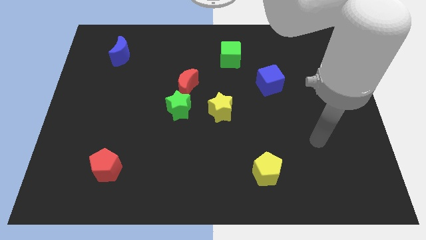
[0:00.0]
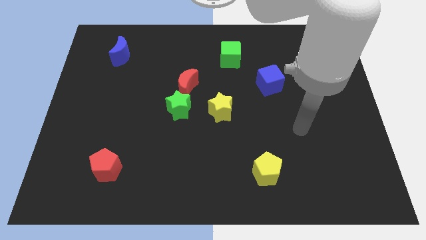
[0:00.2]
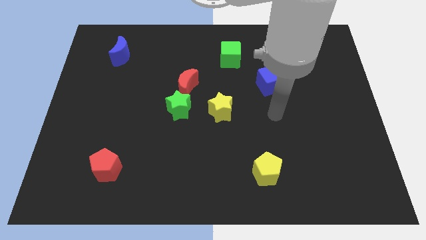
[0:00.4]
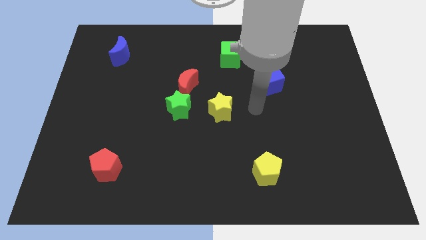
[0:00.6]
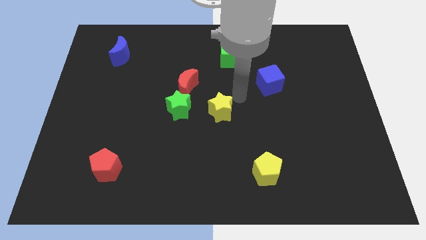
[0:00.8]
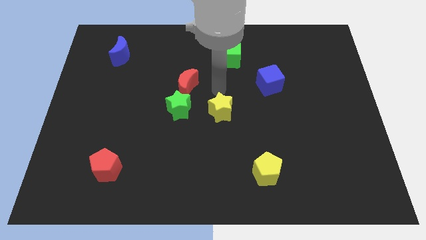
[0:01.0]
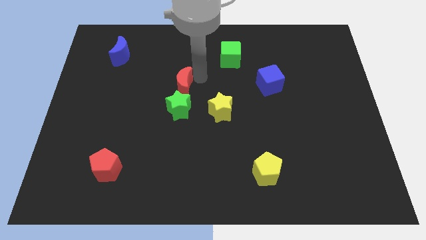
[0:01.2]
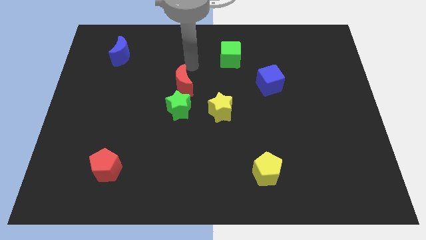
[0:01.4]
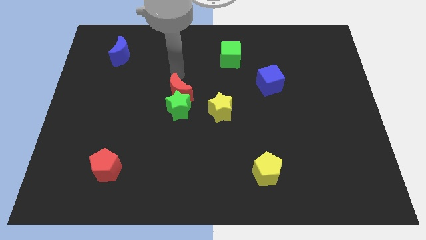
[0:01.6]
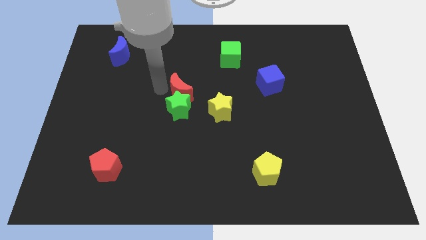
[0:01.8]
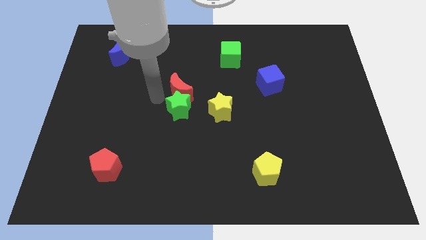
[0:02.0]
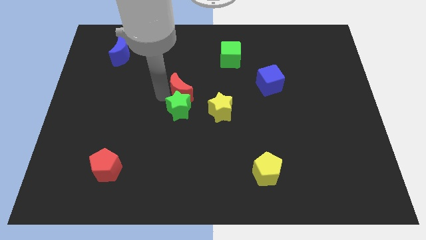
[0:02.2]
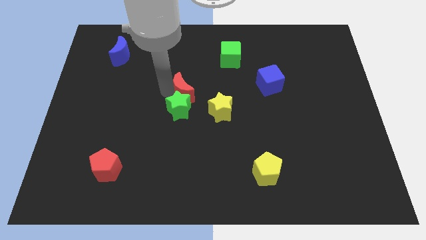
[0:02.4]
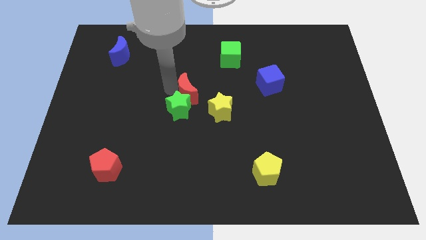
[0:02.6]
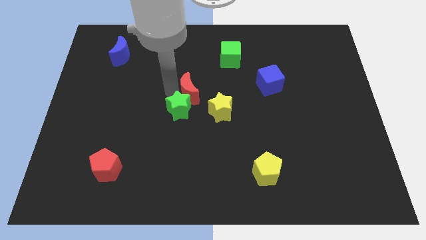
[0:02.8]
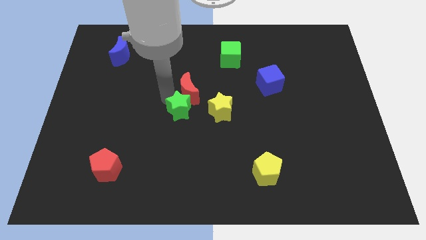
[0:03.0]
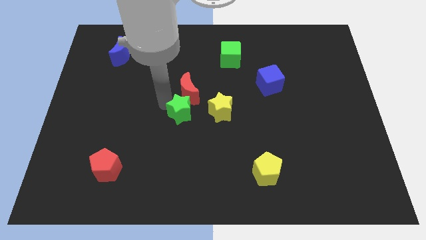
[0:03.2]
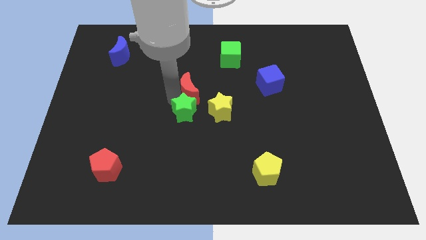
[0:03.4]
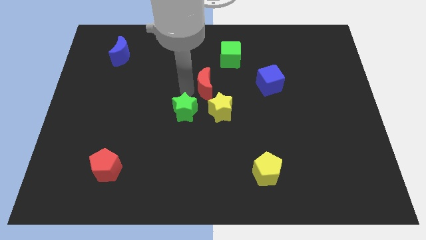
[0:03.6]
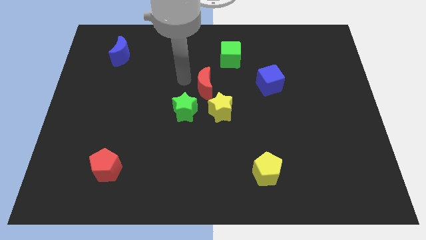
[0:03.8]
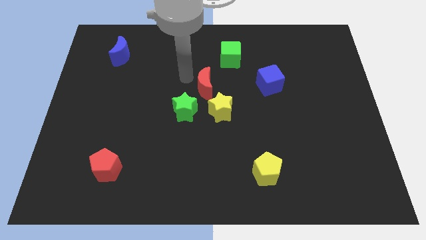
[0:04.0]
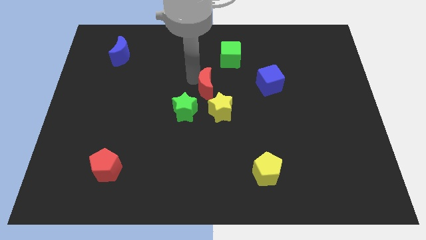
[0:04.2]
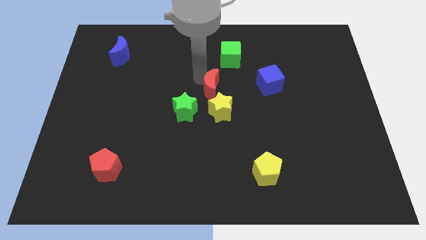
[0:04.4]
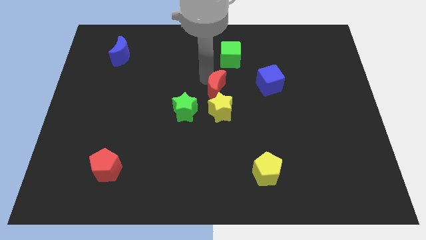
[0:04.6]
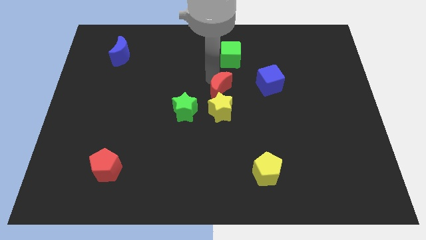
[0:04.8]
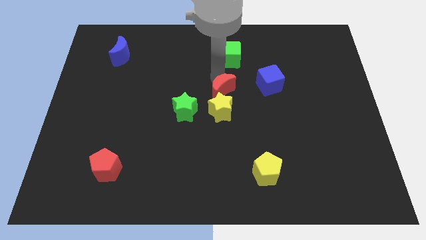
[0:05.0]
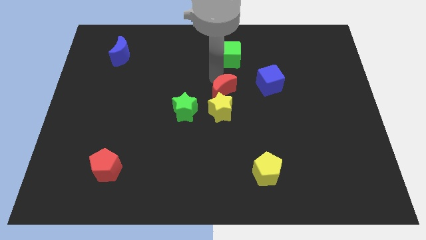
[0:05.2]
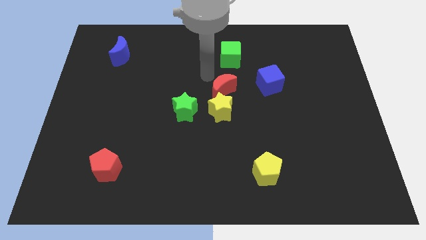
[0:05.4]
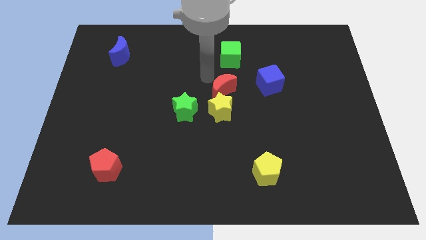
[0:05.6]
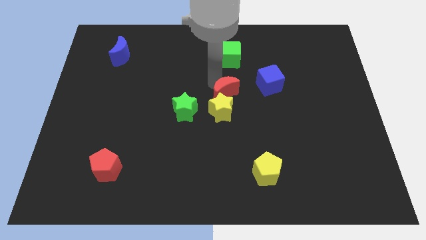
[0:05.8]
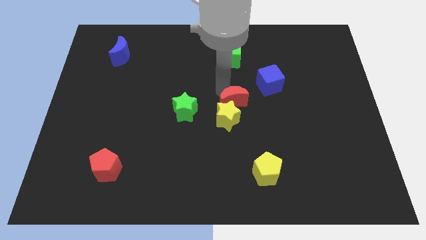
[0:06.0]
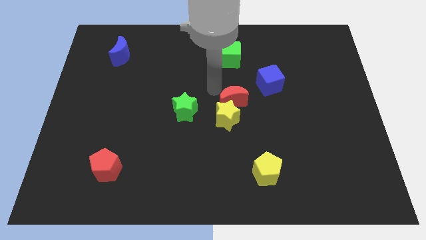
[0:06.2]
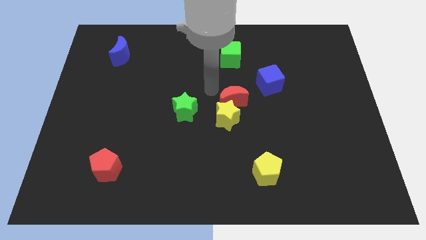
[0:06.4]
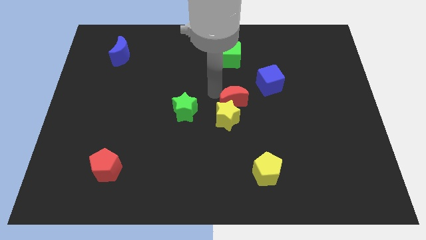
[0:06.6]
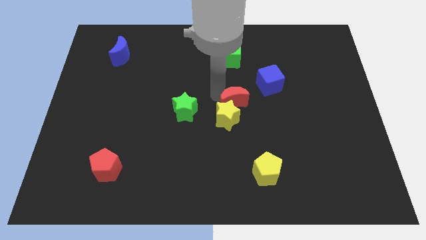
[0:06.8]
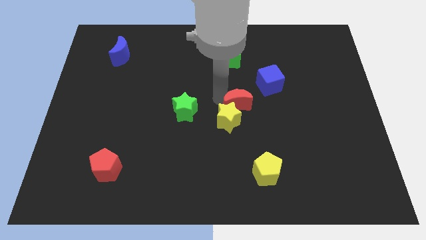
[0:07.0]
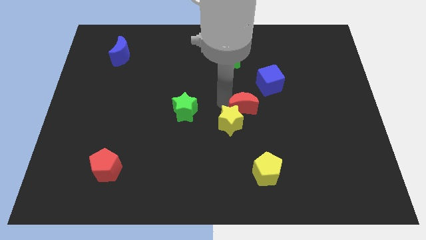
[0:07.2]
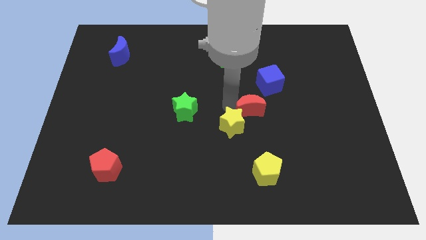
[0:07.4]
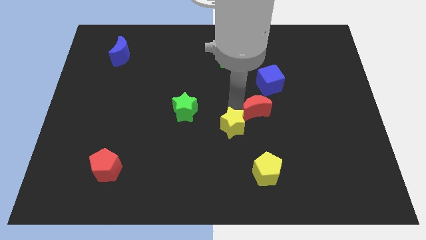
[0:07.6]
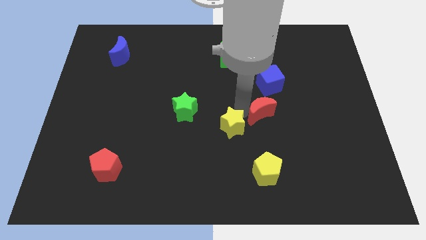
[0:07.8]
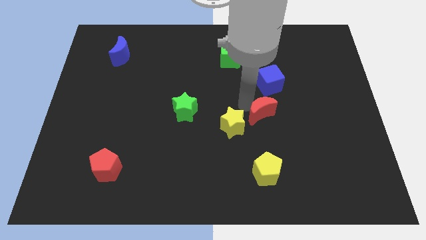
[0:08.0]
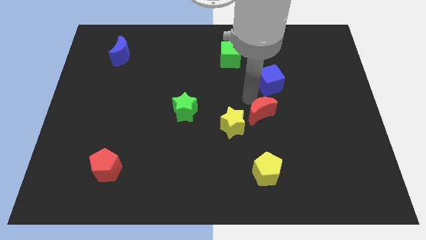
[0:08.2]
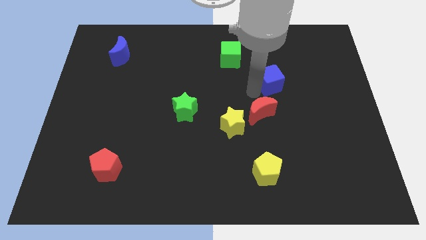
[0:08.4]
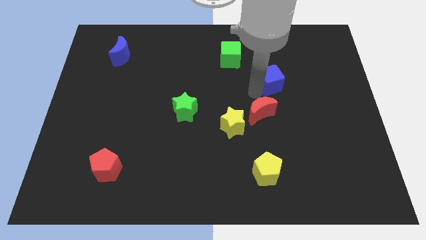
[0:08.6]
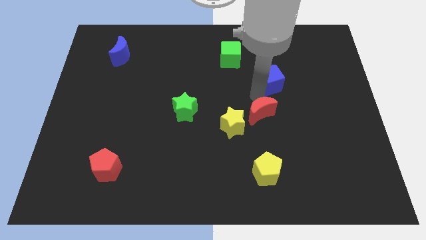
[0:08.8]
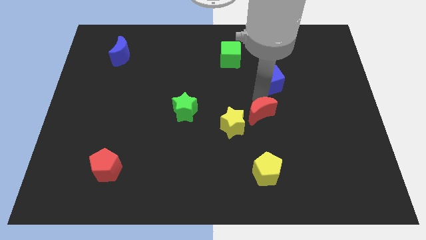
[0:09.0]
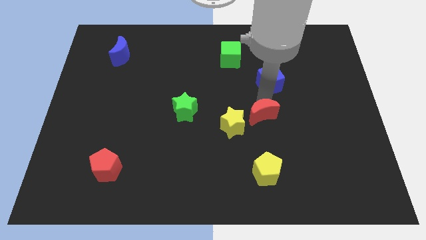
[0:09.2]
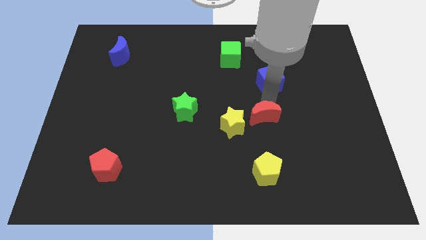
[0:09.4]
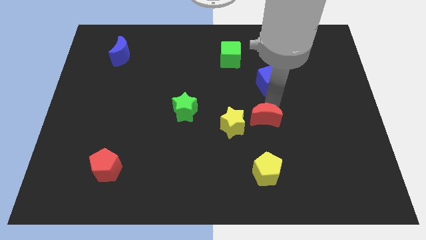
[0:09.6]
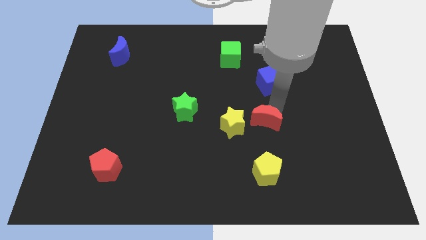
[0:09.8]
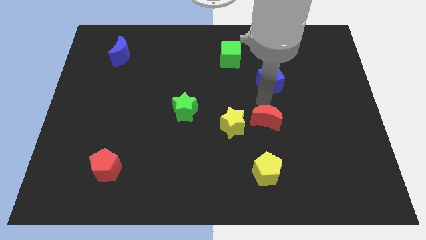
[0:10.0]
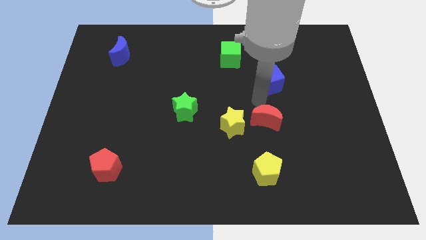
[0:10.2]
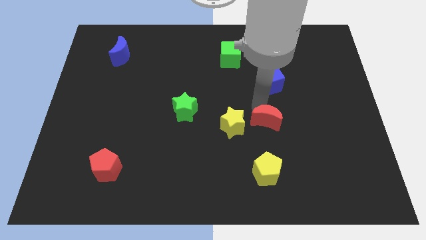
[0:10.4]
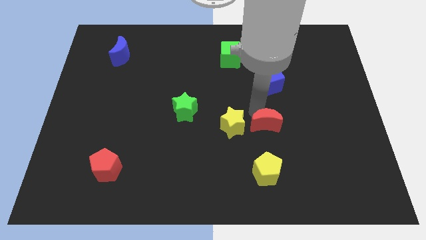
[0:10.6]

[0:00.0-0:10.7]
push the red moon diagonally downwards and right

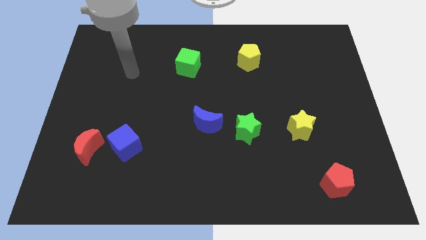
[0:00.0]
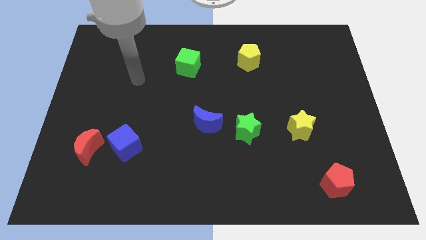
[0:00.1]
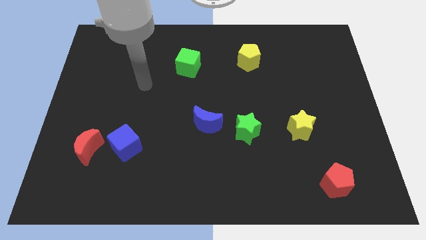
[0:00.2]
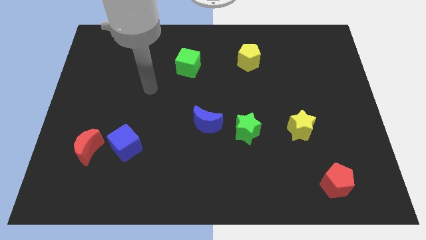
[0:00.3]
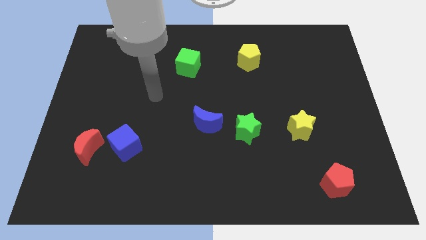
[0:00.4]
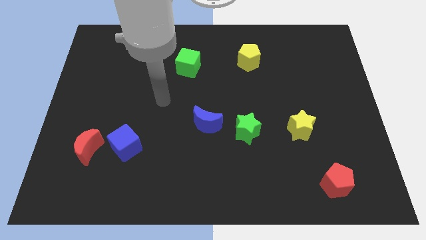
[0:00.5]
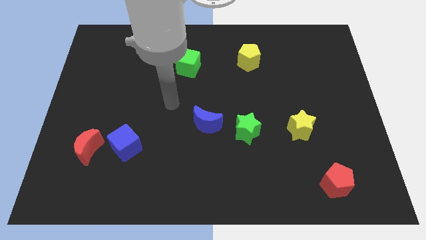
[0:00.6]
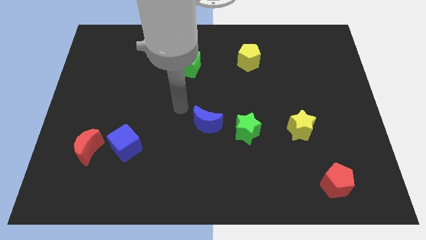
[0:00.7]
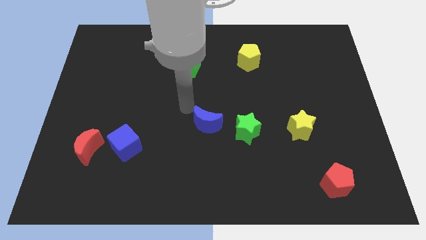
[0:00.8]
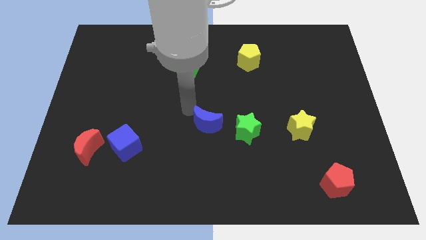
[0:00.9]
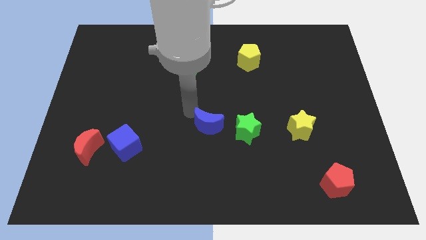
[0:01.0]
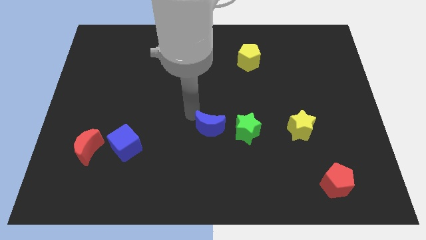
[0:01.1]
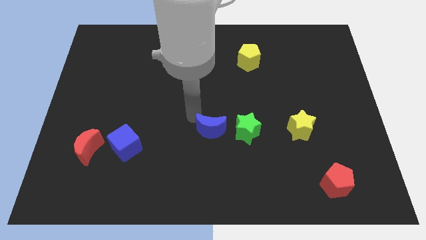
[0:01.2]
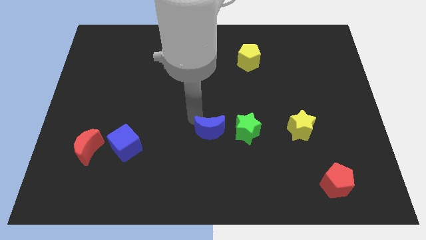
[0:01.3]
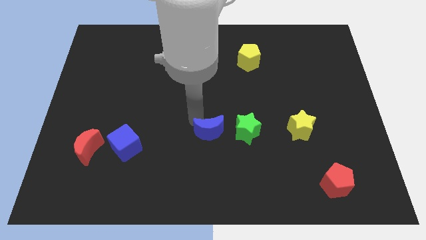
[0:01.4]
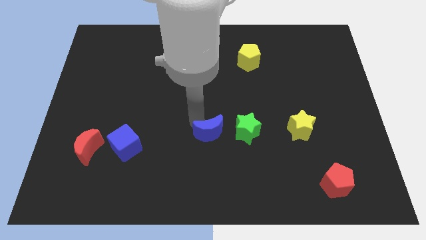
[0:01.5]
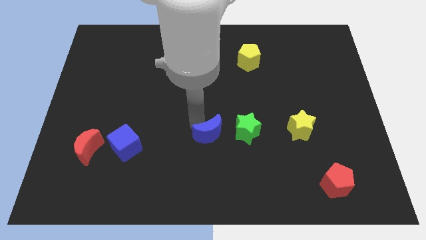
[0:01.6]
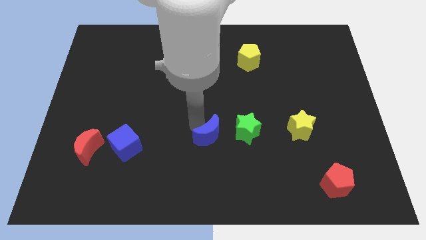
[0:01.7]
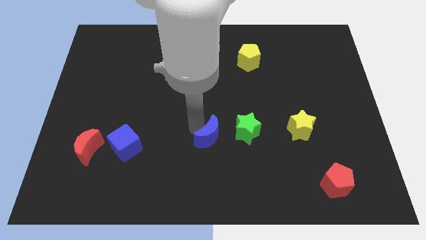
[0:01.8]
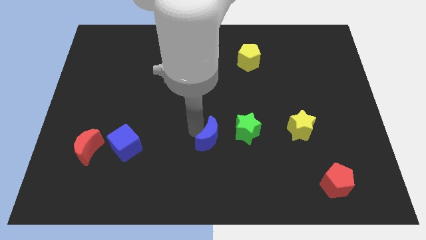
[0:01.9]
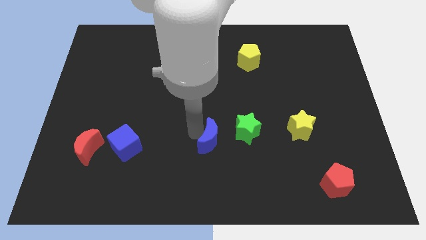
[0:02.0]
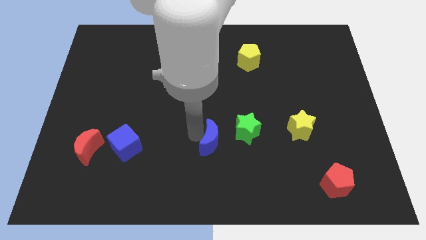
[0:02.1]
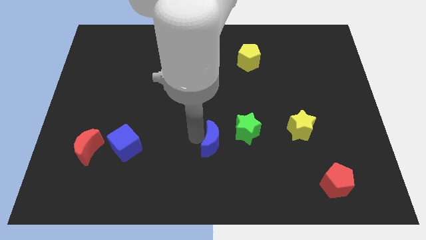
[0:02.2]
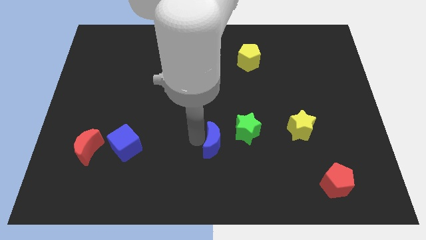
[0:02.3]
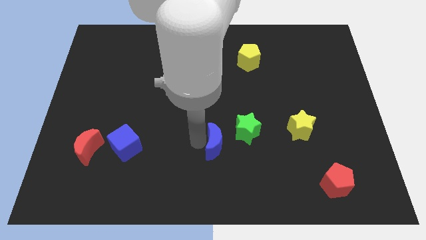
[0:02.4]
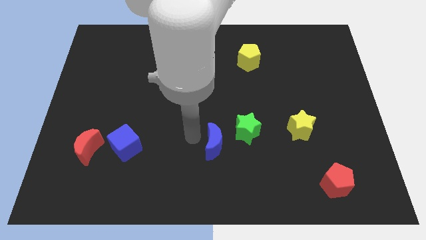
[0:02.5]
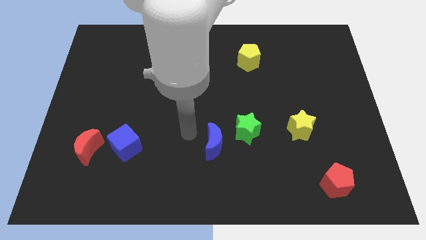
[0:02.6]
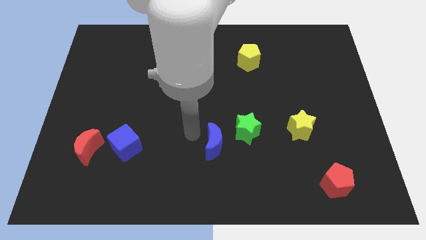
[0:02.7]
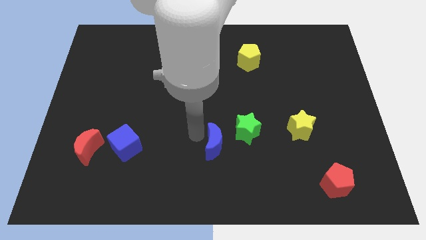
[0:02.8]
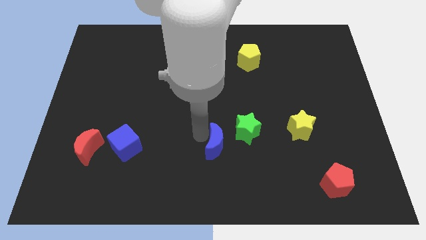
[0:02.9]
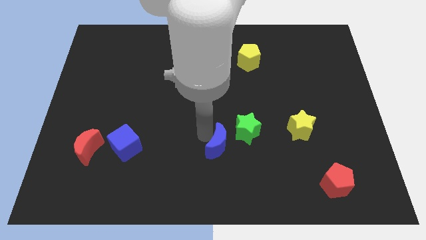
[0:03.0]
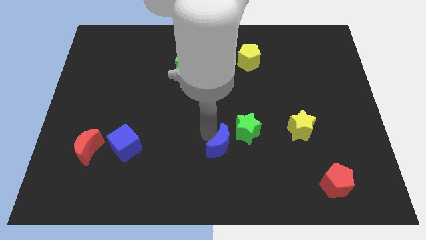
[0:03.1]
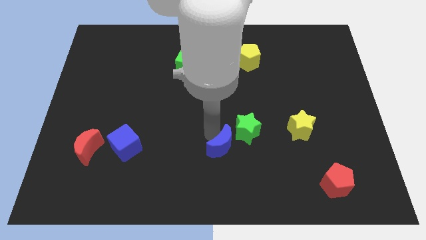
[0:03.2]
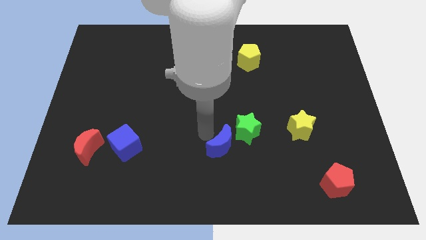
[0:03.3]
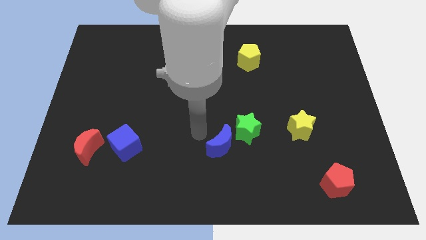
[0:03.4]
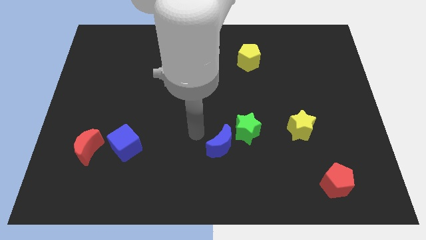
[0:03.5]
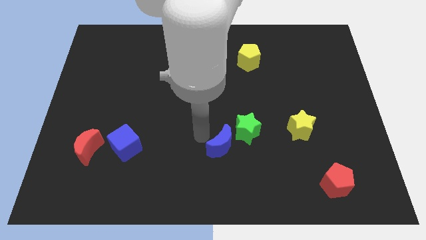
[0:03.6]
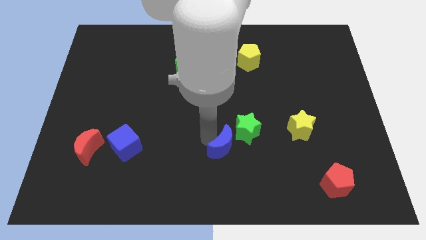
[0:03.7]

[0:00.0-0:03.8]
move the blue moon down and then right a bit
